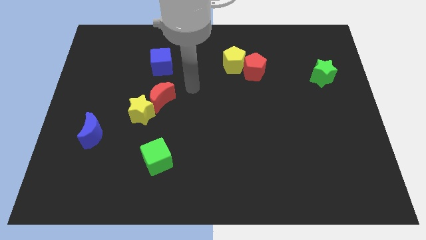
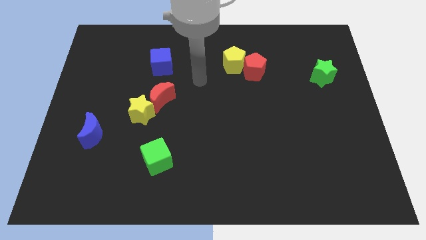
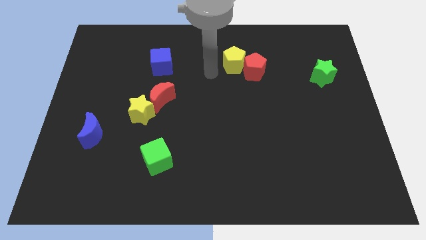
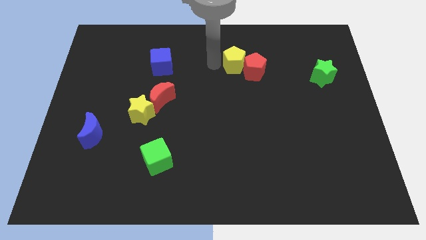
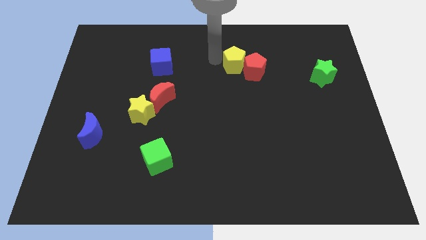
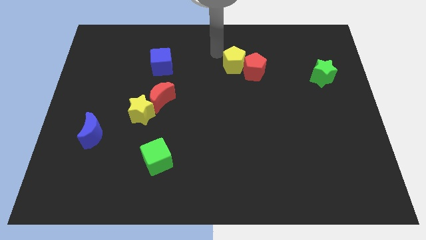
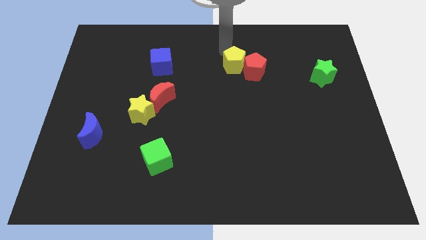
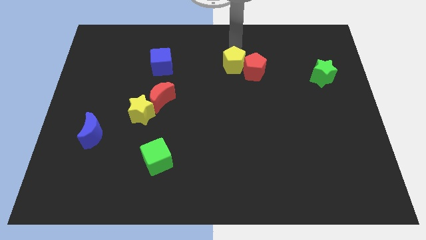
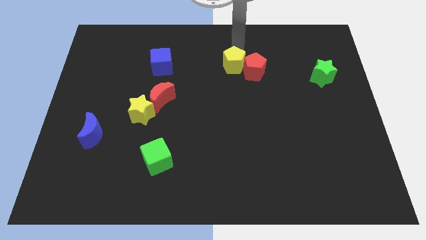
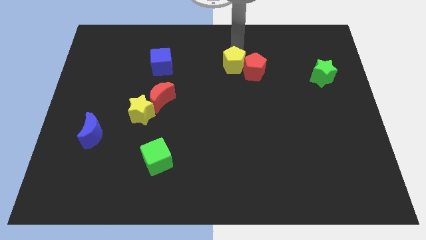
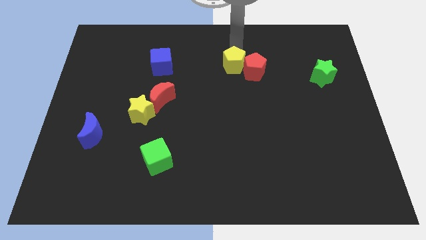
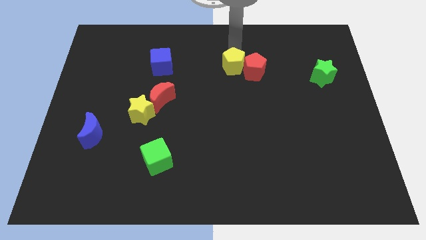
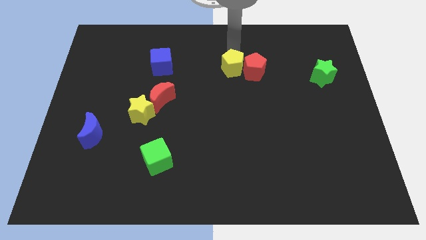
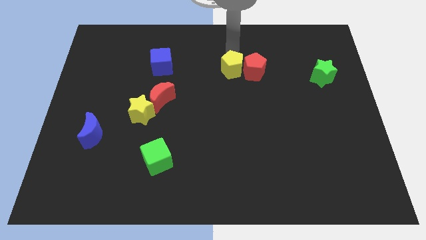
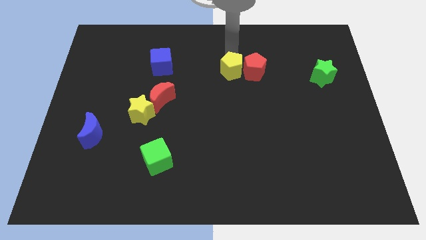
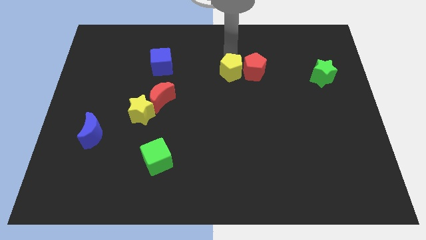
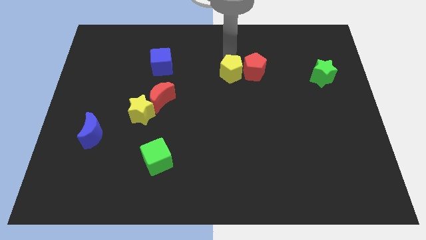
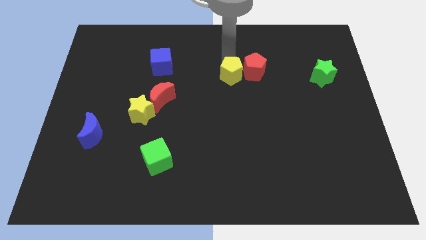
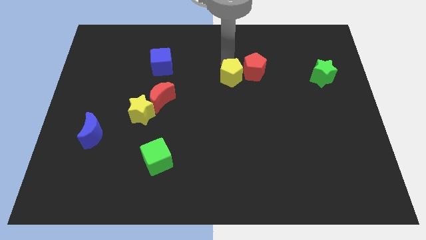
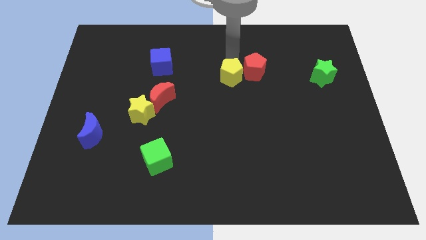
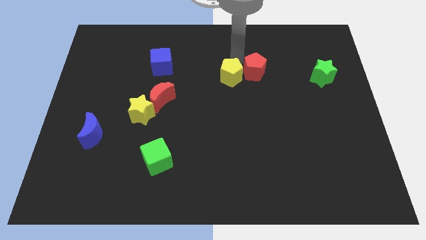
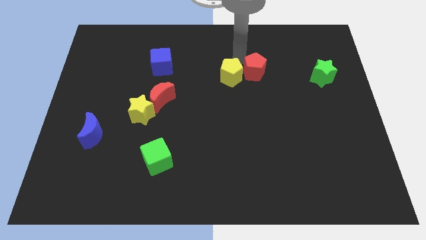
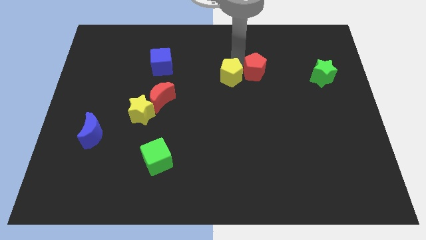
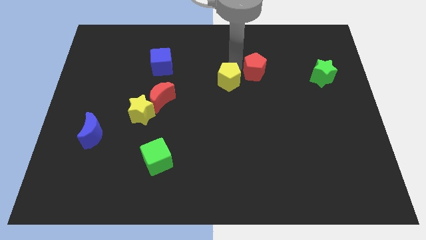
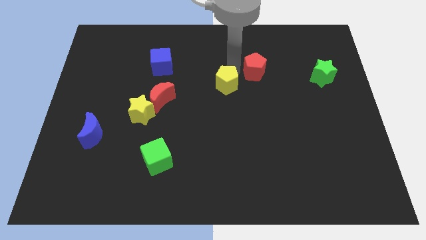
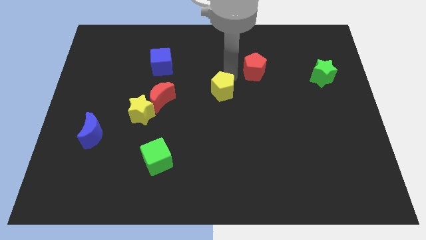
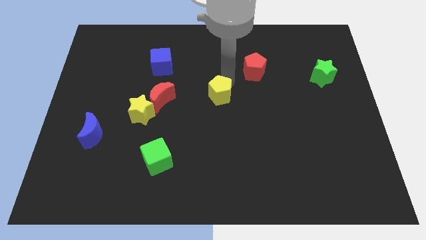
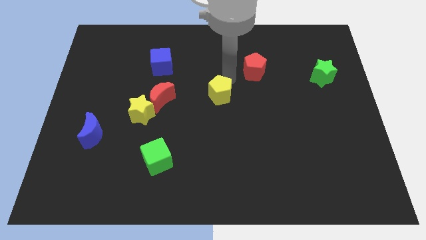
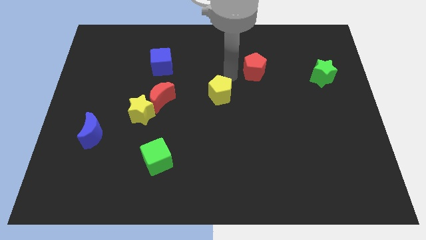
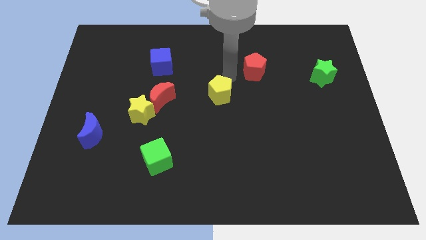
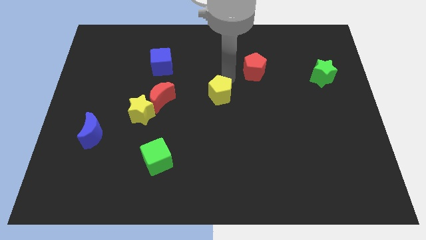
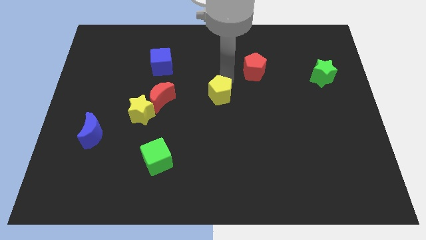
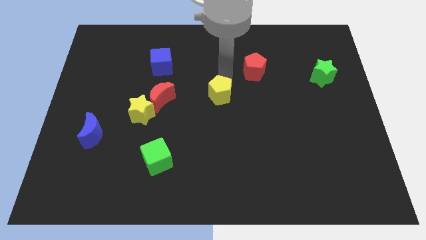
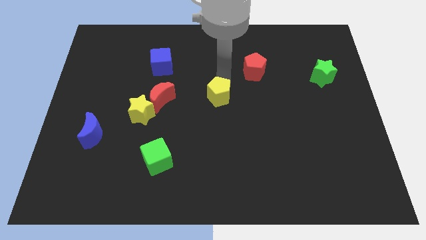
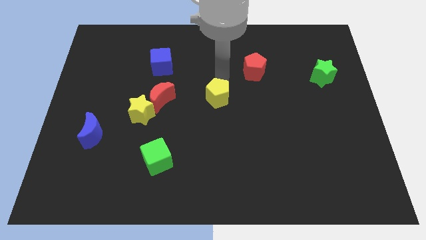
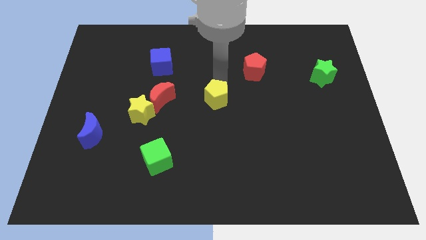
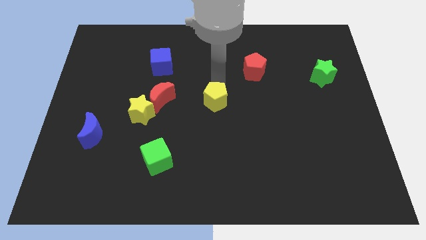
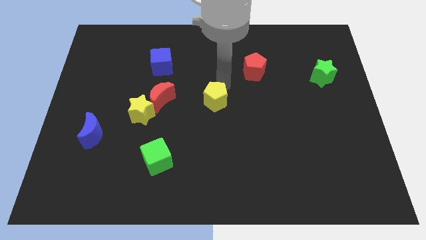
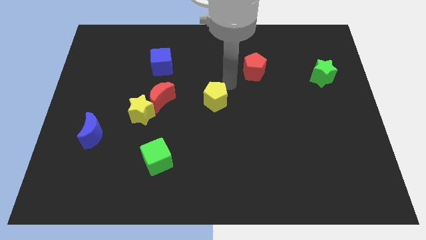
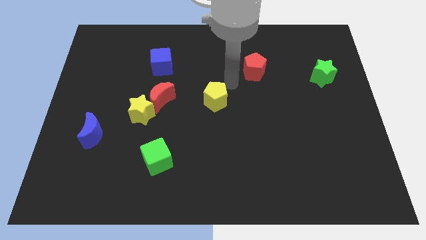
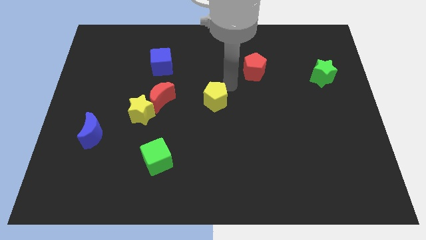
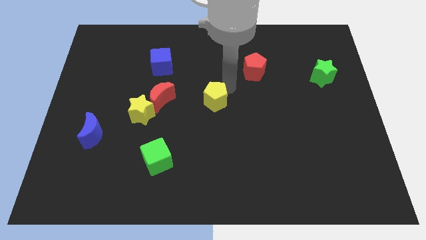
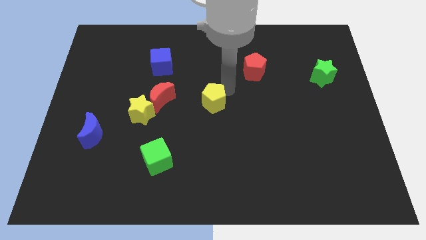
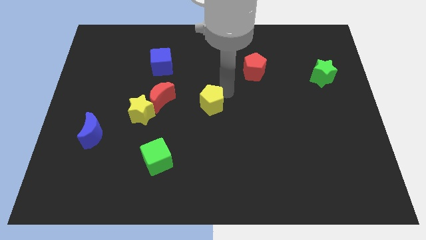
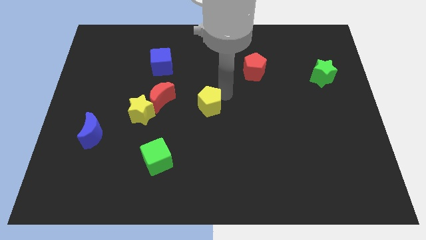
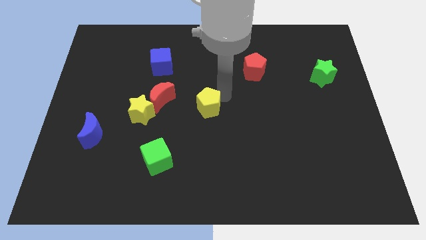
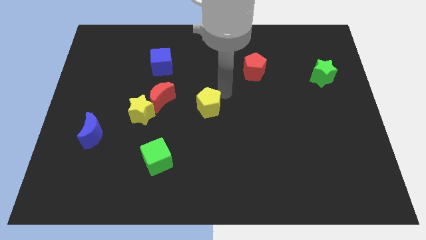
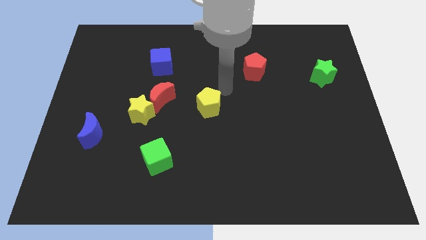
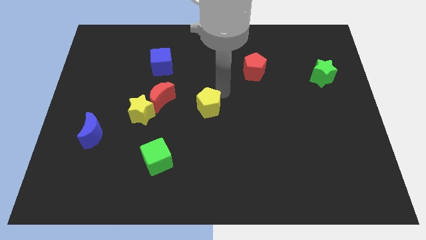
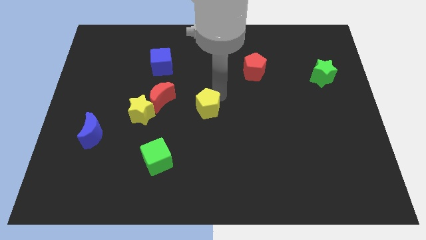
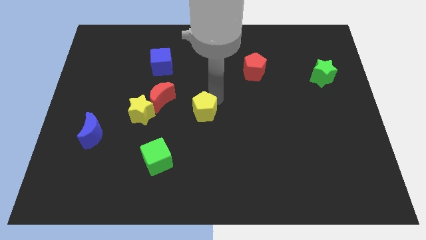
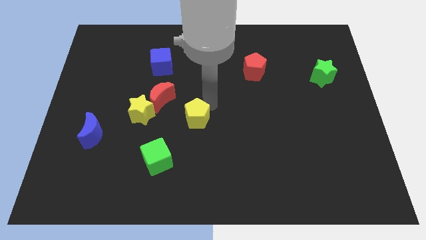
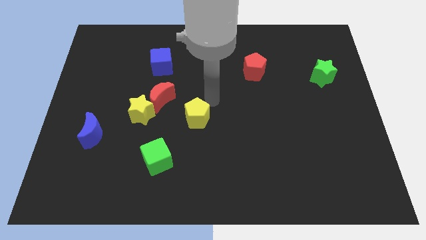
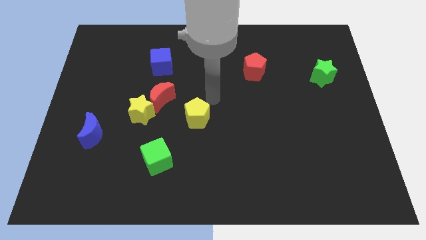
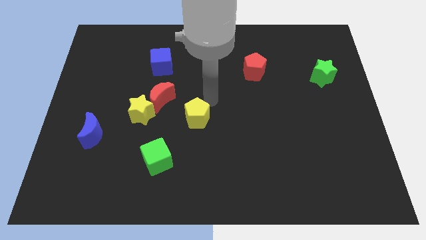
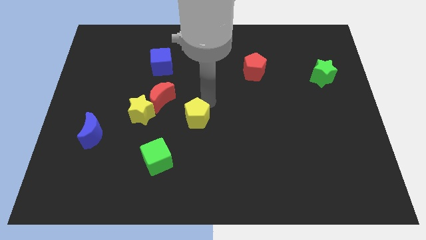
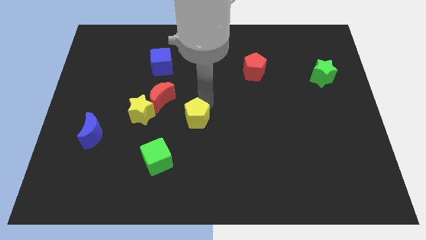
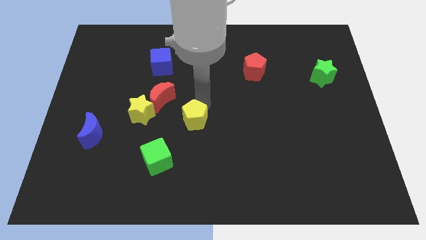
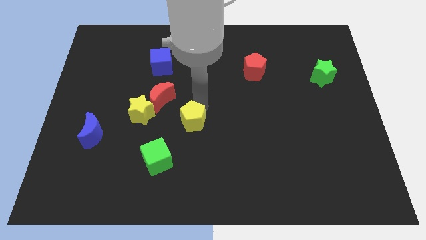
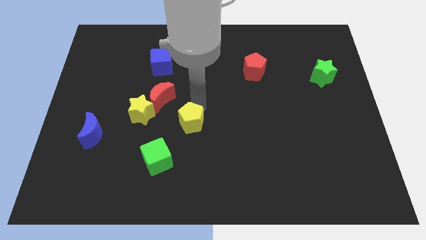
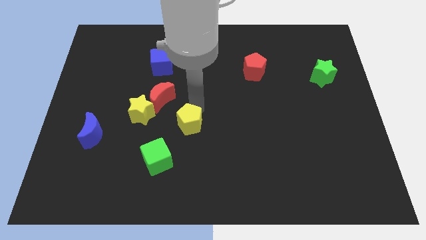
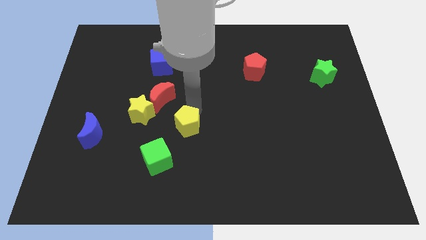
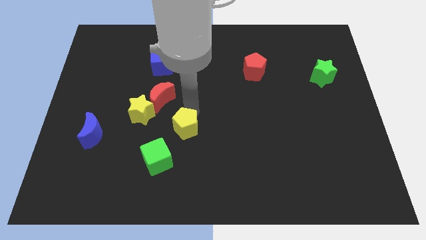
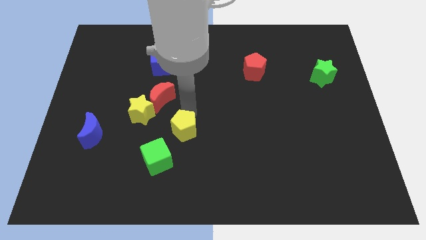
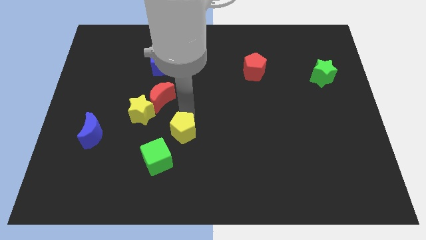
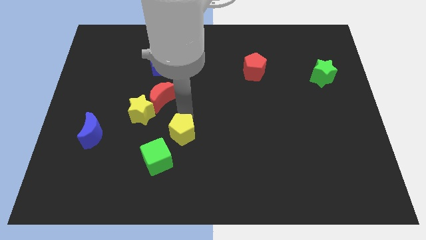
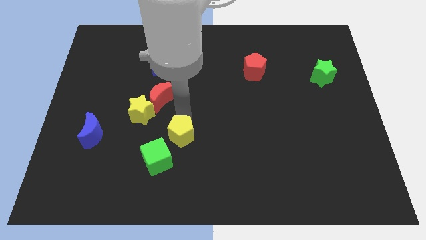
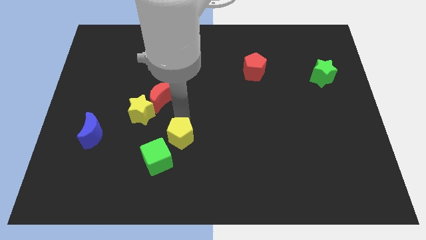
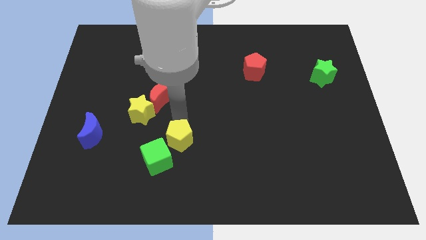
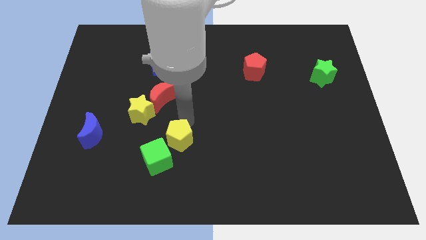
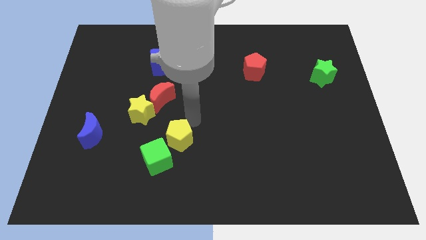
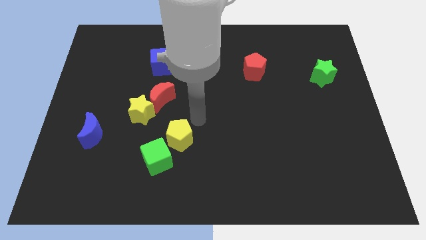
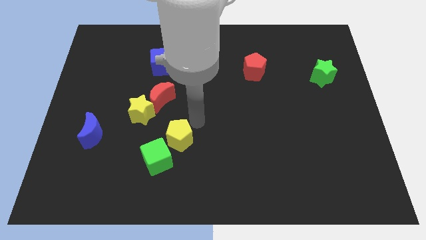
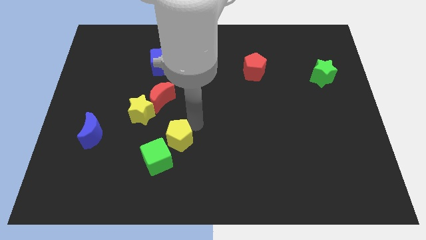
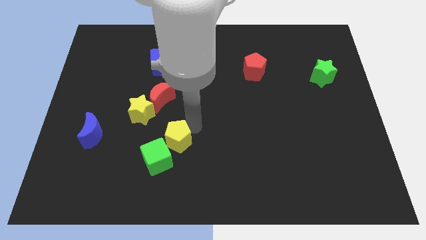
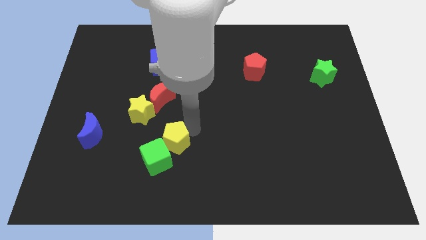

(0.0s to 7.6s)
move the yellow pentagon close to the green cube
